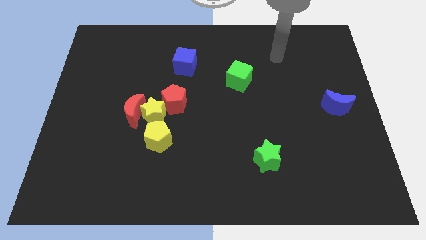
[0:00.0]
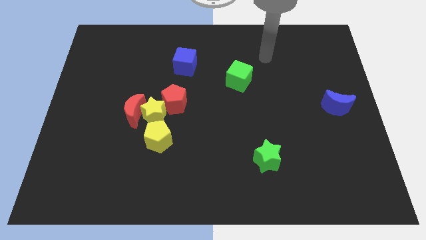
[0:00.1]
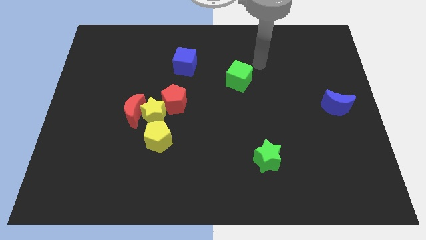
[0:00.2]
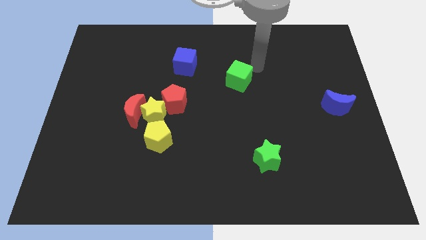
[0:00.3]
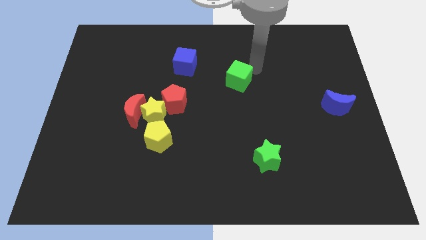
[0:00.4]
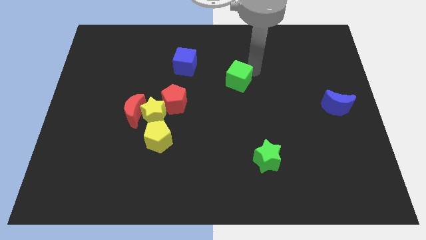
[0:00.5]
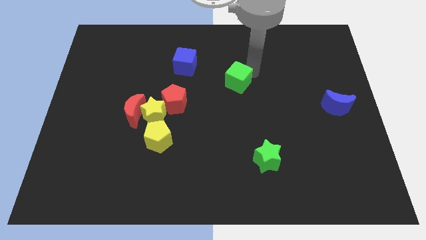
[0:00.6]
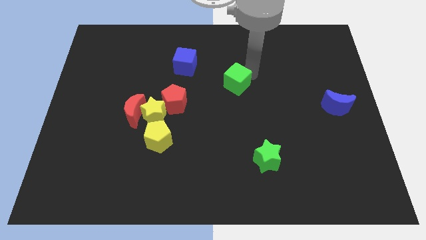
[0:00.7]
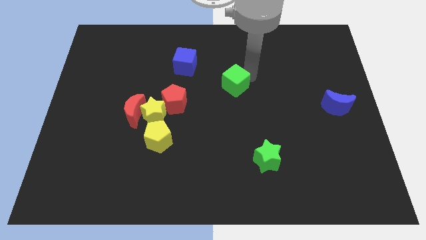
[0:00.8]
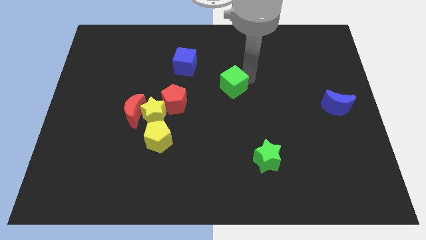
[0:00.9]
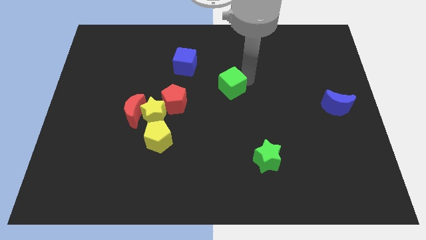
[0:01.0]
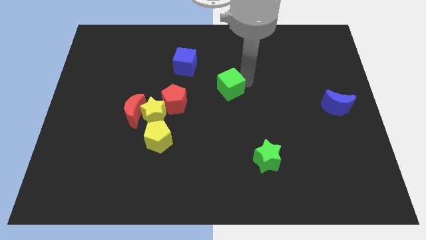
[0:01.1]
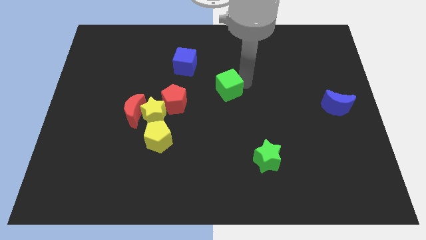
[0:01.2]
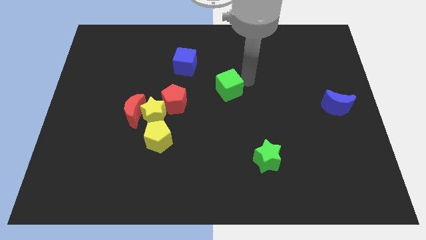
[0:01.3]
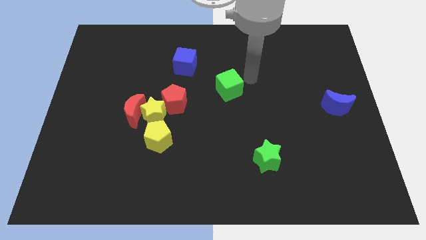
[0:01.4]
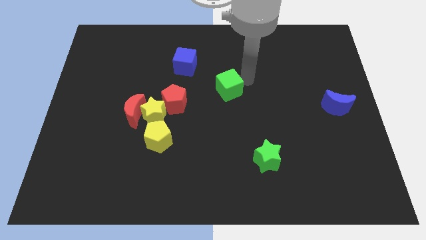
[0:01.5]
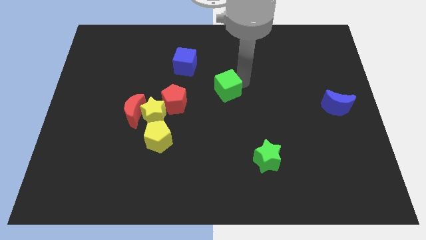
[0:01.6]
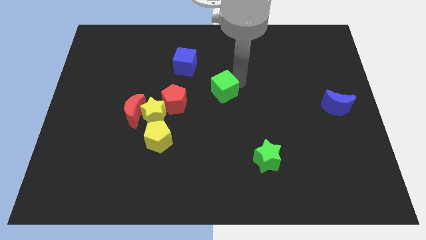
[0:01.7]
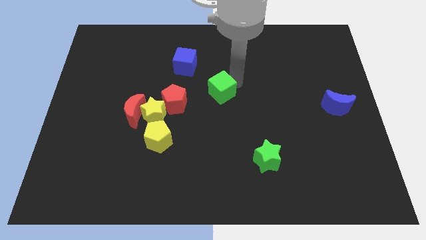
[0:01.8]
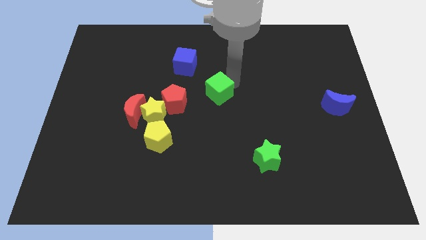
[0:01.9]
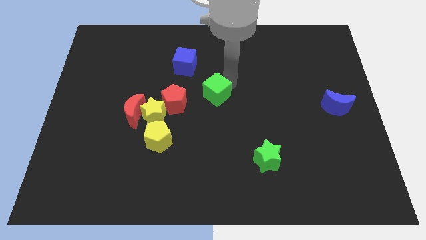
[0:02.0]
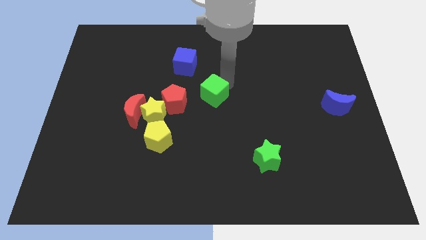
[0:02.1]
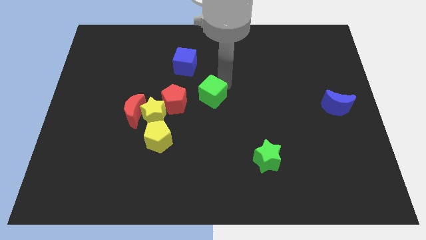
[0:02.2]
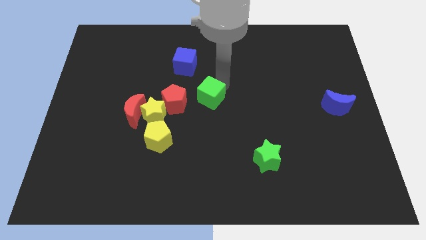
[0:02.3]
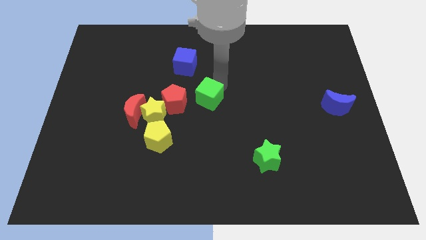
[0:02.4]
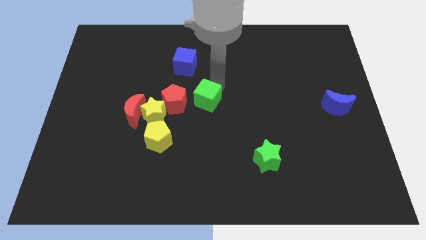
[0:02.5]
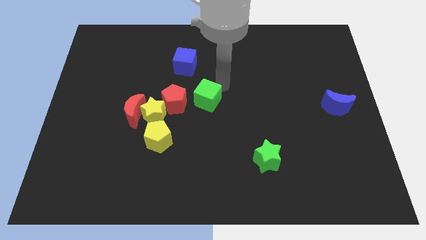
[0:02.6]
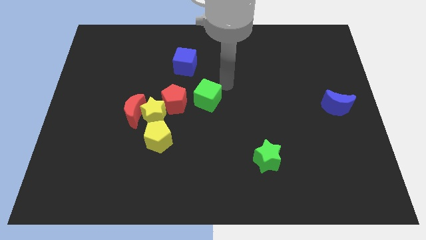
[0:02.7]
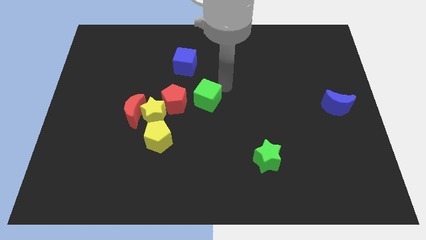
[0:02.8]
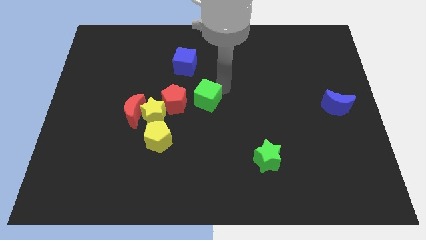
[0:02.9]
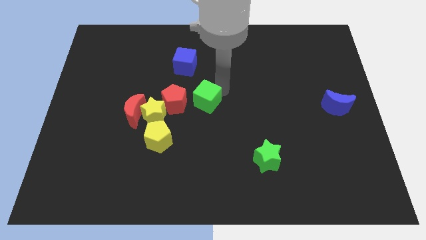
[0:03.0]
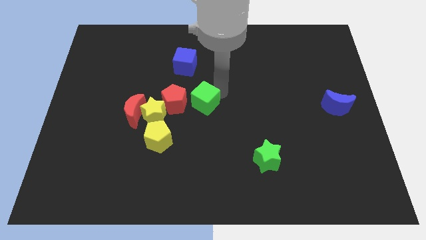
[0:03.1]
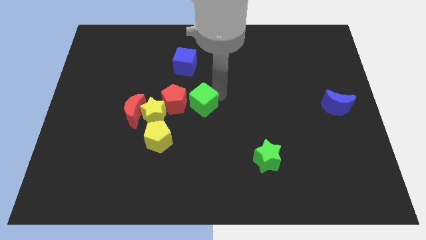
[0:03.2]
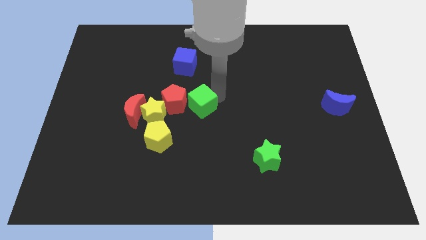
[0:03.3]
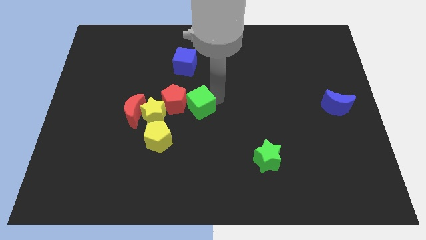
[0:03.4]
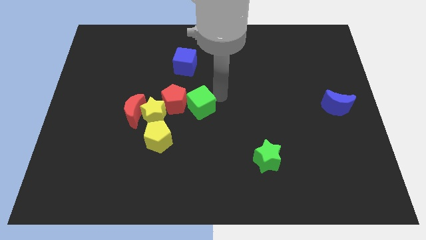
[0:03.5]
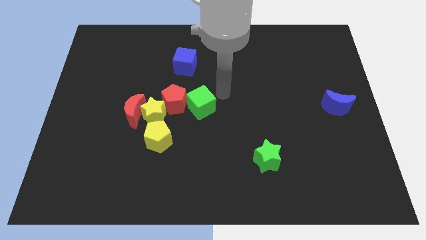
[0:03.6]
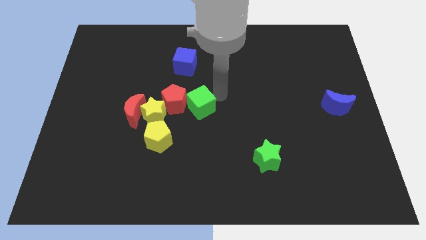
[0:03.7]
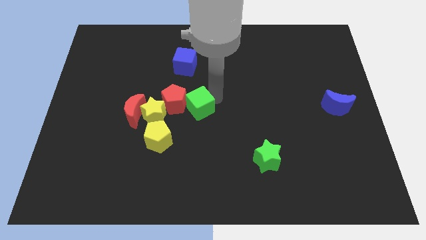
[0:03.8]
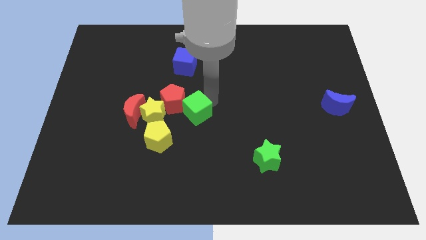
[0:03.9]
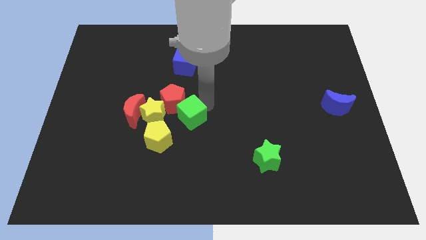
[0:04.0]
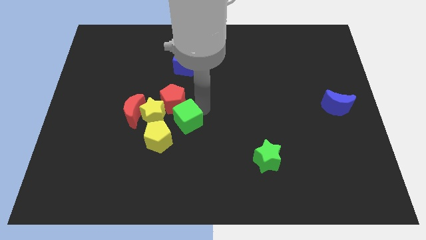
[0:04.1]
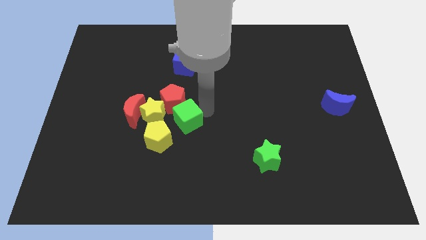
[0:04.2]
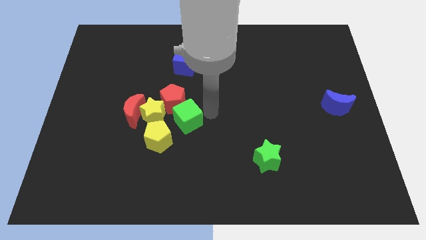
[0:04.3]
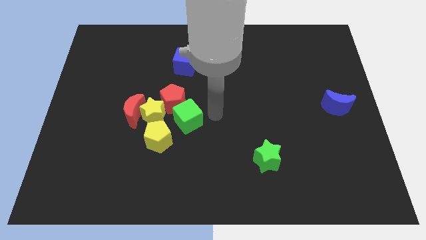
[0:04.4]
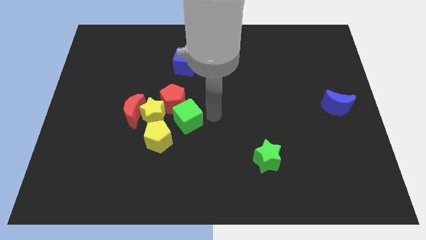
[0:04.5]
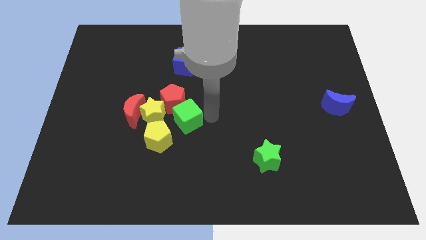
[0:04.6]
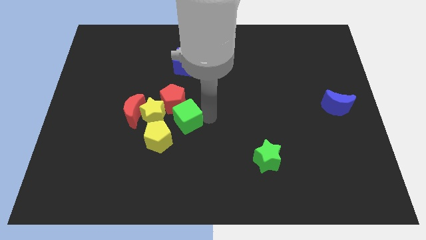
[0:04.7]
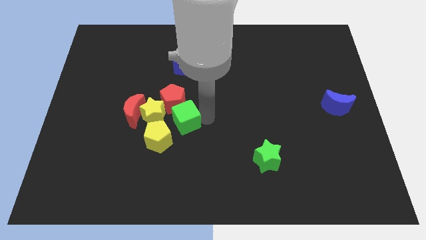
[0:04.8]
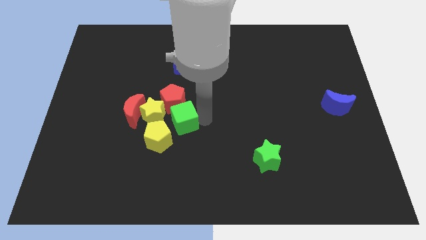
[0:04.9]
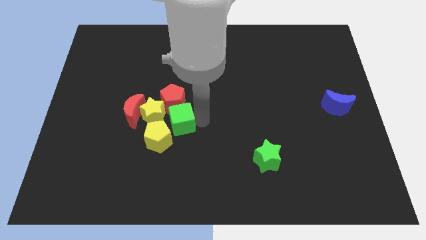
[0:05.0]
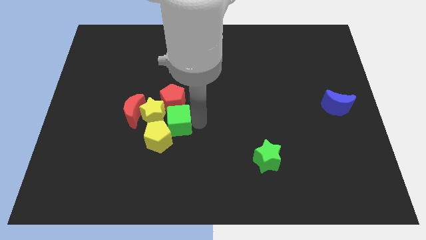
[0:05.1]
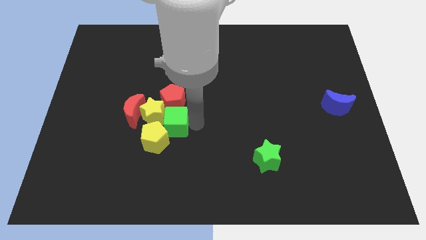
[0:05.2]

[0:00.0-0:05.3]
move the green cube next to the yellow star
